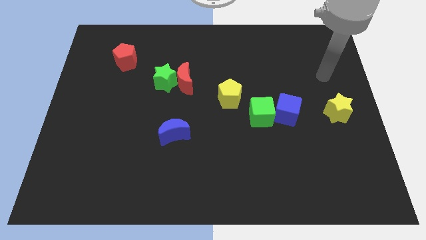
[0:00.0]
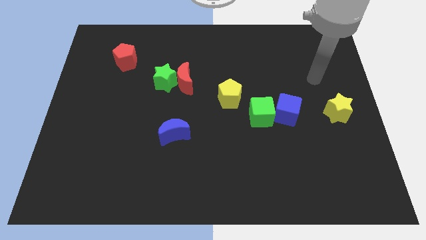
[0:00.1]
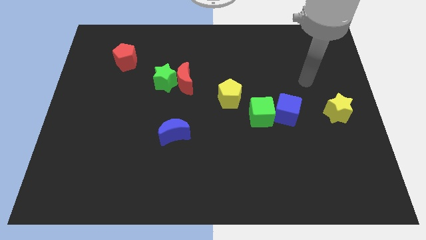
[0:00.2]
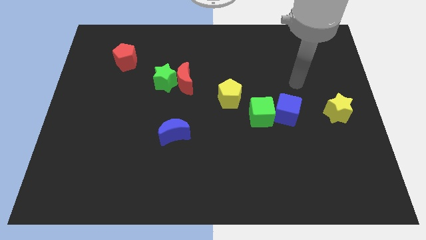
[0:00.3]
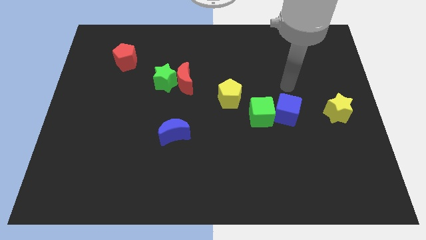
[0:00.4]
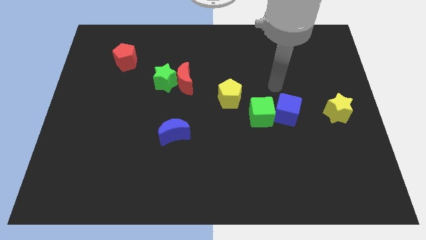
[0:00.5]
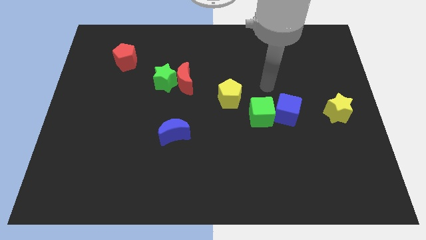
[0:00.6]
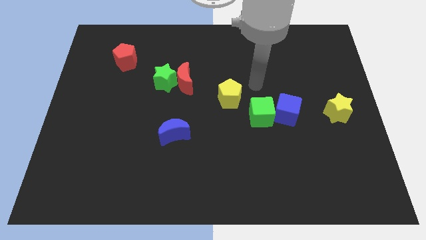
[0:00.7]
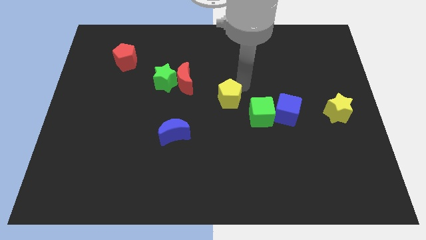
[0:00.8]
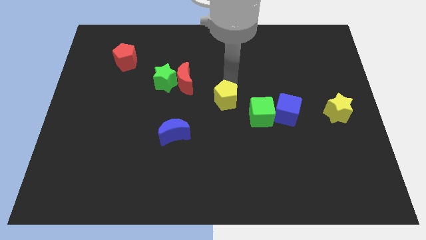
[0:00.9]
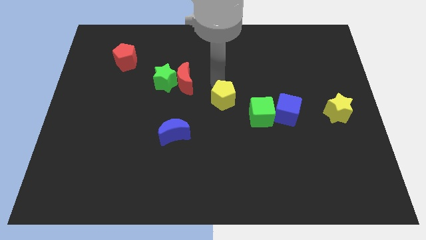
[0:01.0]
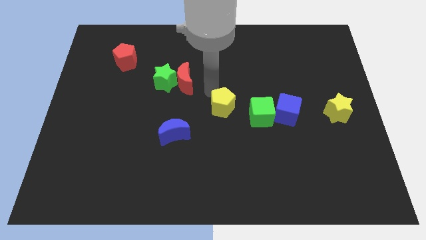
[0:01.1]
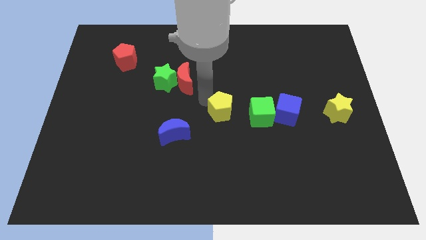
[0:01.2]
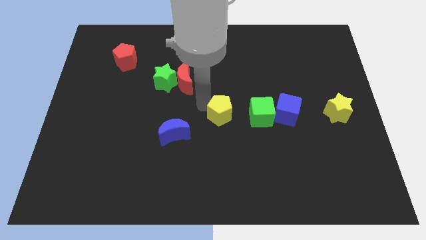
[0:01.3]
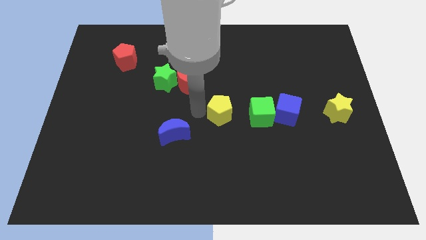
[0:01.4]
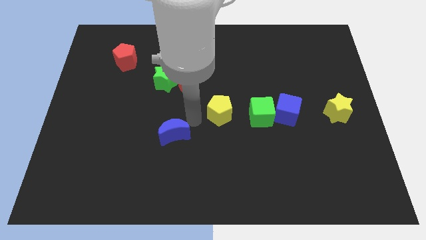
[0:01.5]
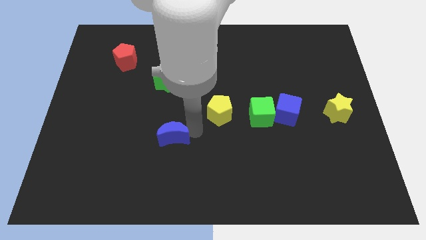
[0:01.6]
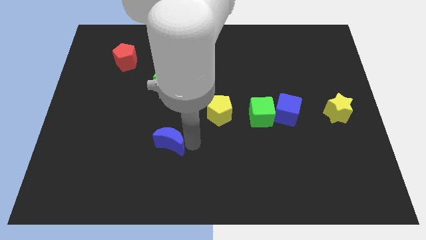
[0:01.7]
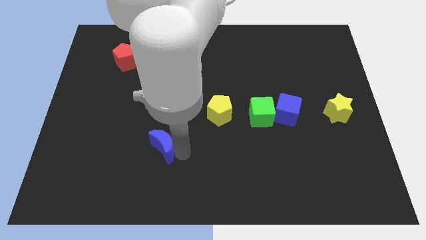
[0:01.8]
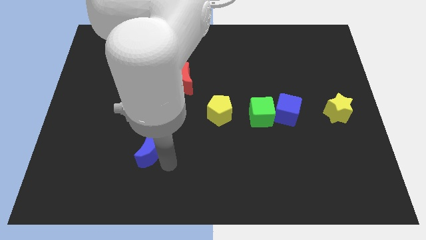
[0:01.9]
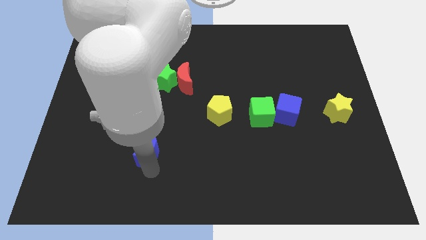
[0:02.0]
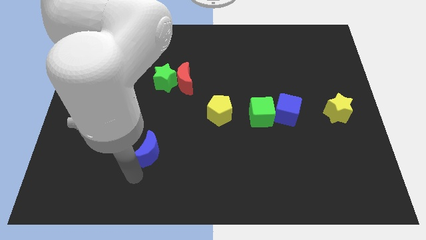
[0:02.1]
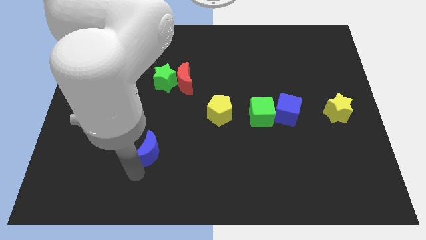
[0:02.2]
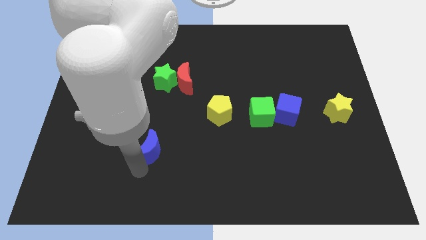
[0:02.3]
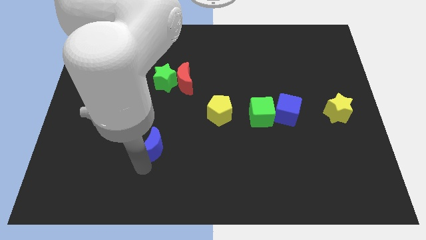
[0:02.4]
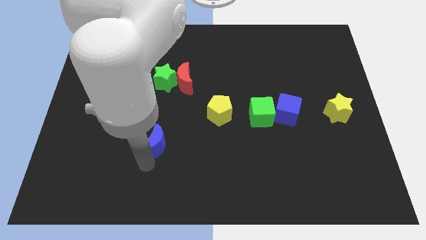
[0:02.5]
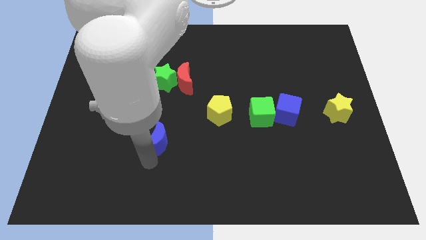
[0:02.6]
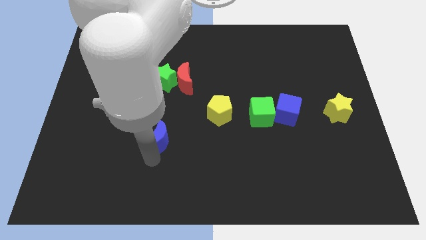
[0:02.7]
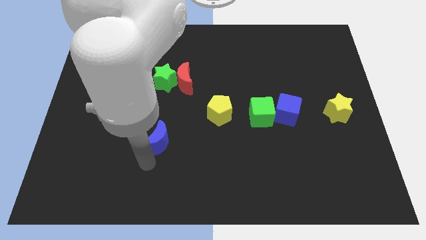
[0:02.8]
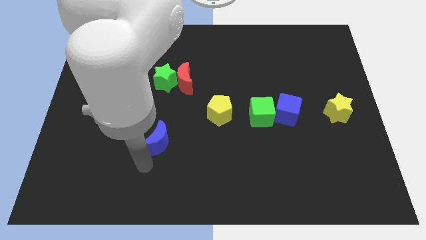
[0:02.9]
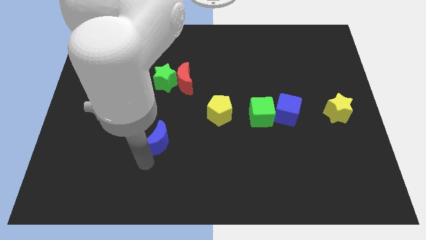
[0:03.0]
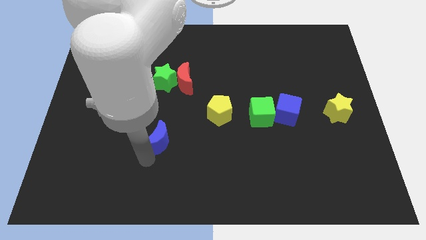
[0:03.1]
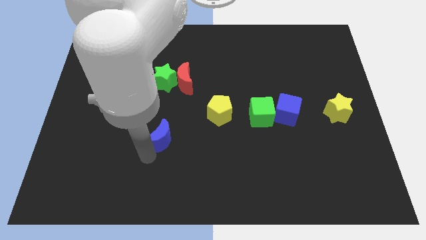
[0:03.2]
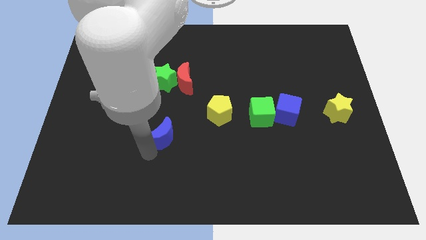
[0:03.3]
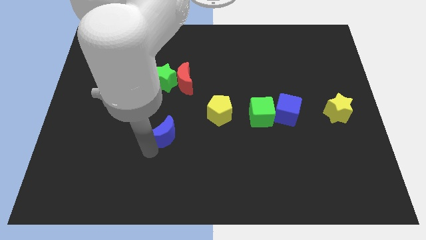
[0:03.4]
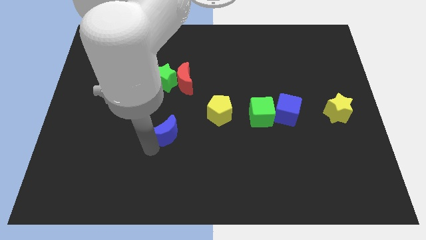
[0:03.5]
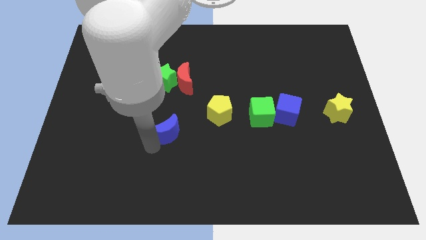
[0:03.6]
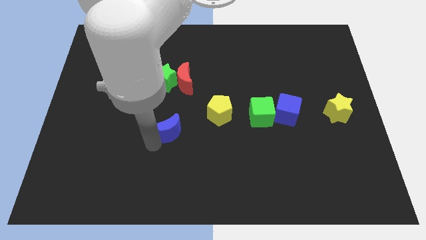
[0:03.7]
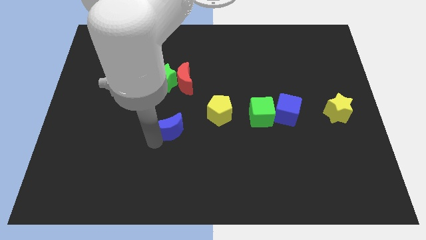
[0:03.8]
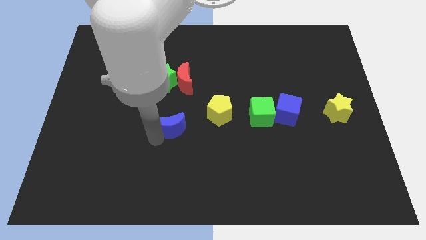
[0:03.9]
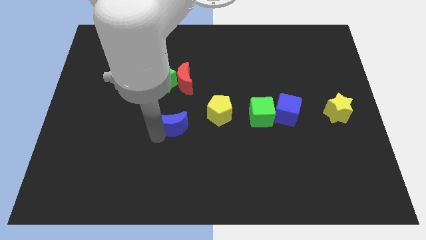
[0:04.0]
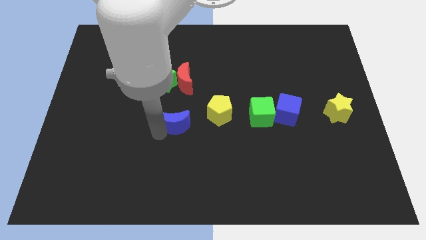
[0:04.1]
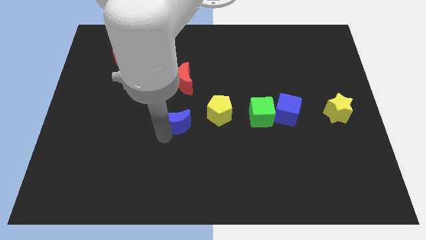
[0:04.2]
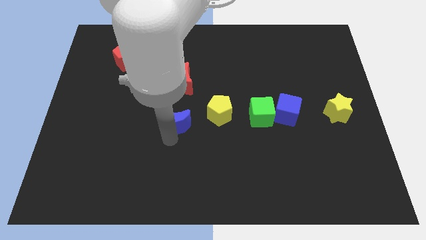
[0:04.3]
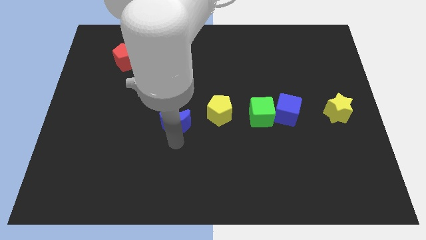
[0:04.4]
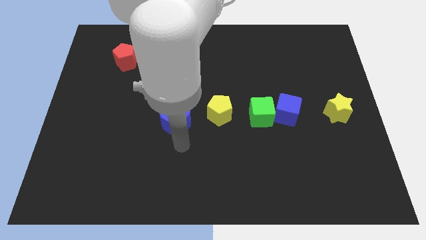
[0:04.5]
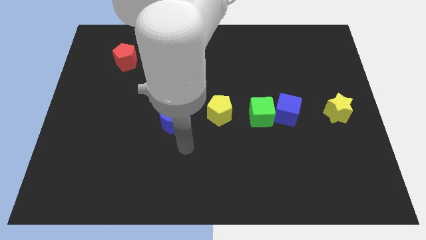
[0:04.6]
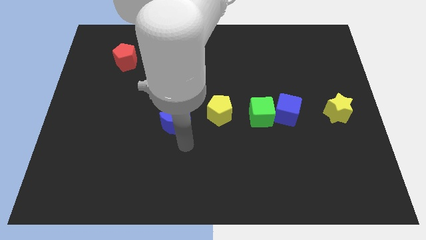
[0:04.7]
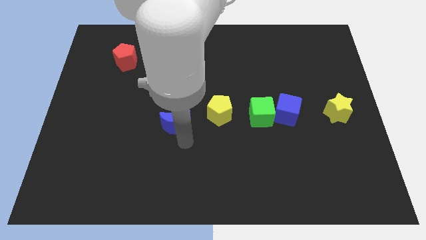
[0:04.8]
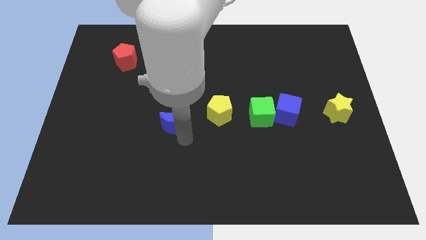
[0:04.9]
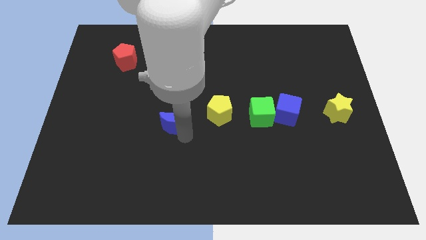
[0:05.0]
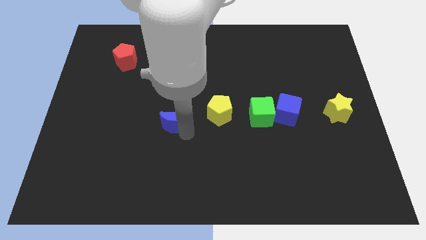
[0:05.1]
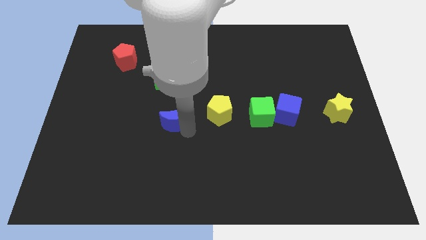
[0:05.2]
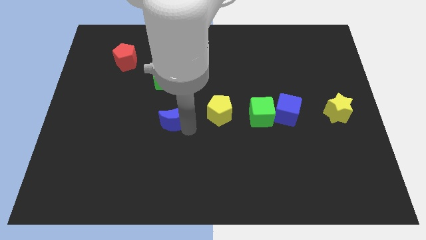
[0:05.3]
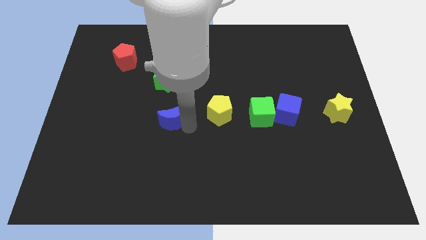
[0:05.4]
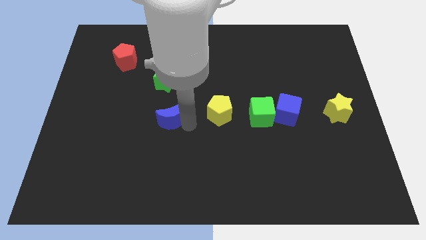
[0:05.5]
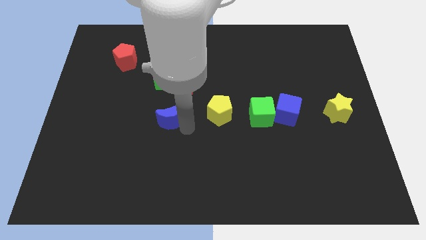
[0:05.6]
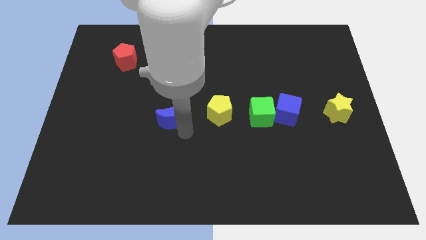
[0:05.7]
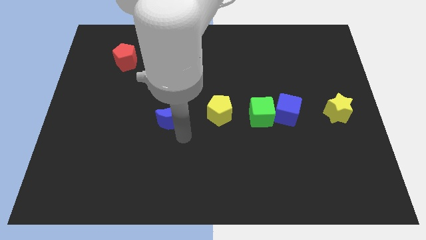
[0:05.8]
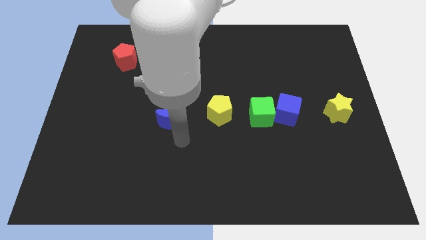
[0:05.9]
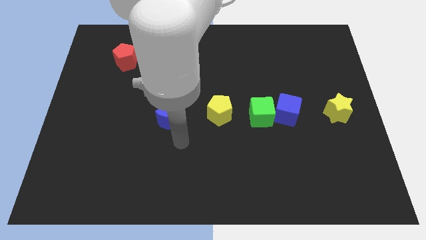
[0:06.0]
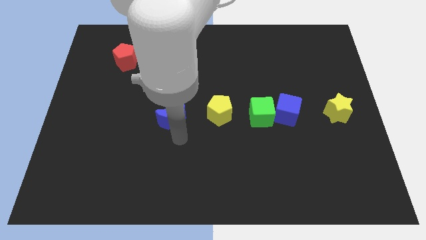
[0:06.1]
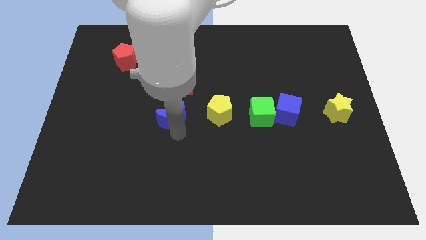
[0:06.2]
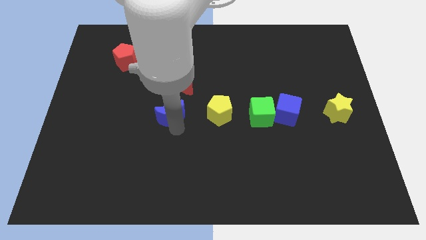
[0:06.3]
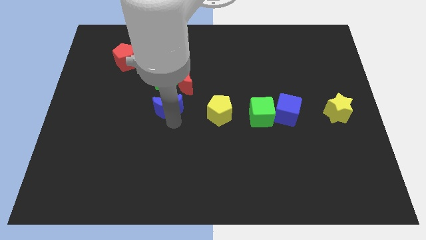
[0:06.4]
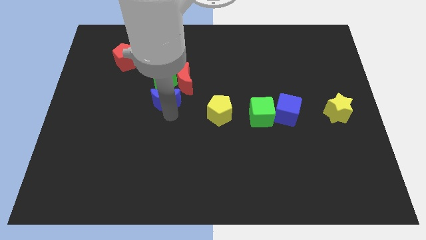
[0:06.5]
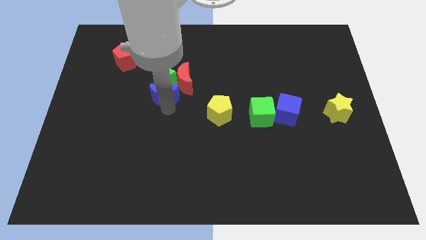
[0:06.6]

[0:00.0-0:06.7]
put the blue moon towards the green star
